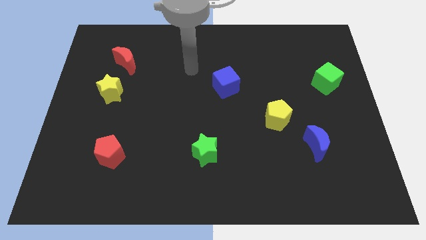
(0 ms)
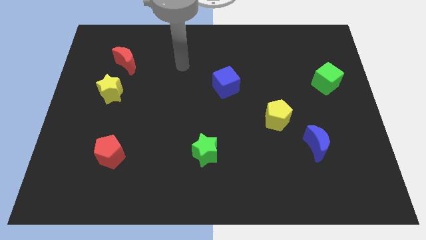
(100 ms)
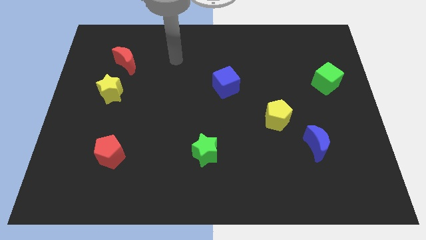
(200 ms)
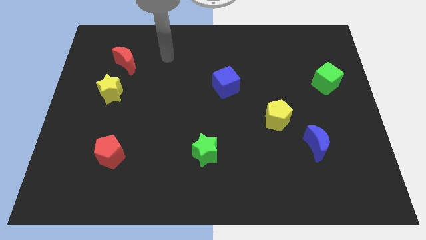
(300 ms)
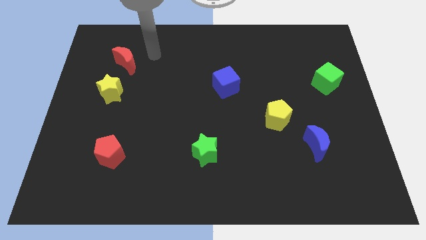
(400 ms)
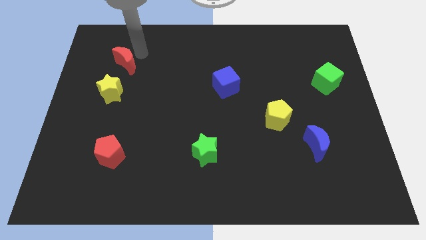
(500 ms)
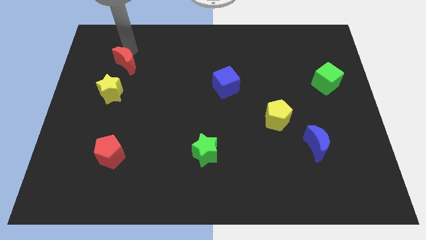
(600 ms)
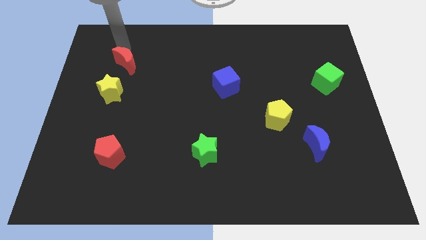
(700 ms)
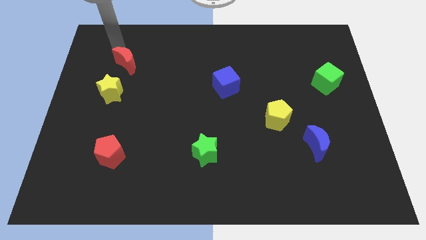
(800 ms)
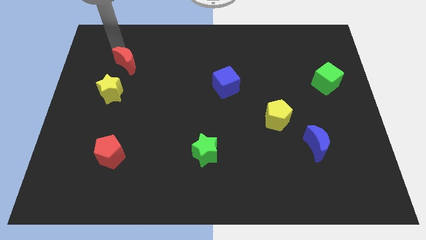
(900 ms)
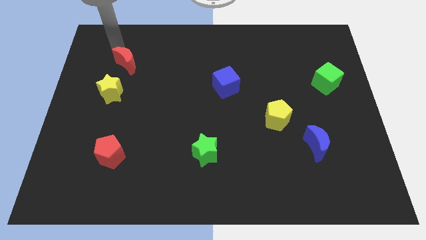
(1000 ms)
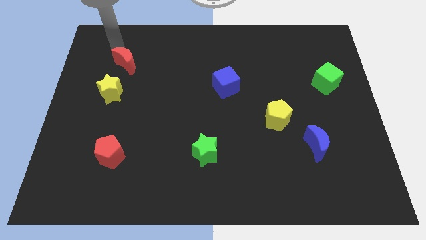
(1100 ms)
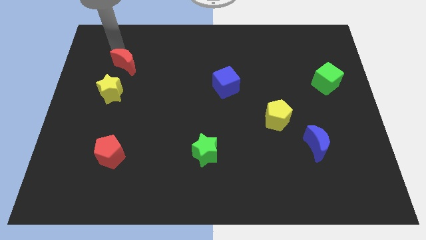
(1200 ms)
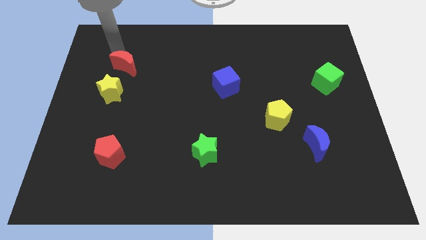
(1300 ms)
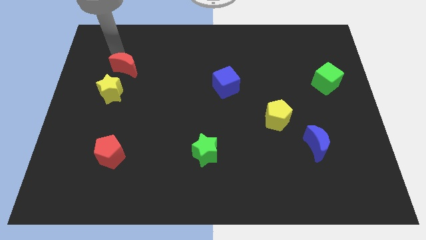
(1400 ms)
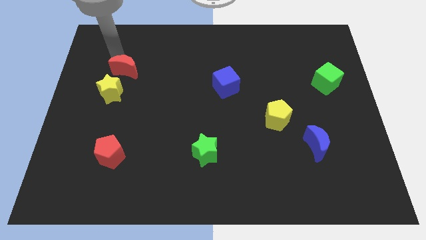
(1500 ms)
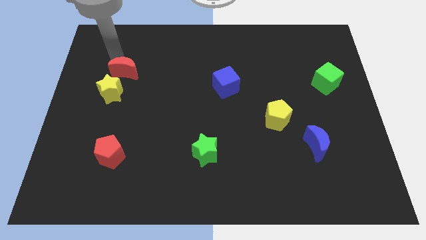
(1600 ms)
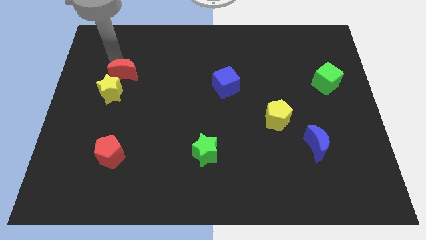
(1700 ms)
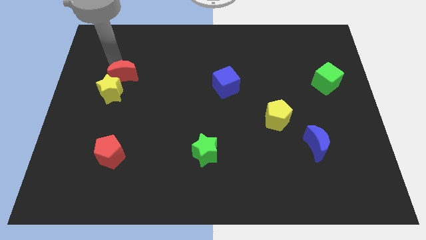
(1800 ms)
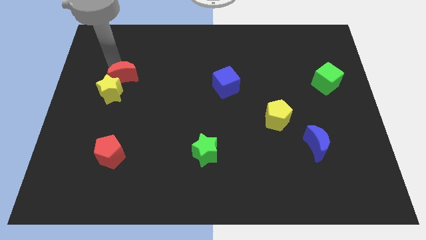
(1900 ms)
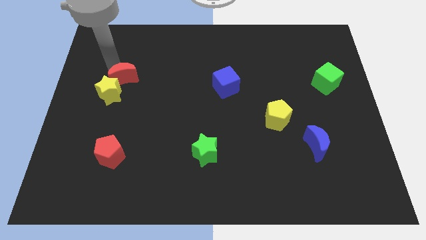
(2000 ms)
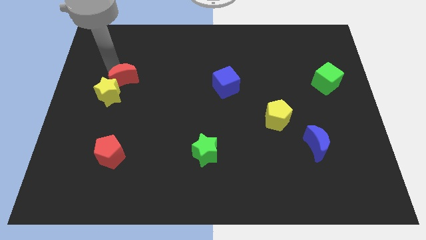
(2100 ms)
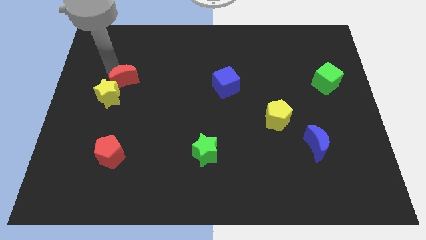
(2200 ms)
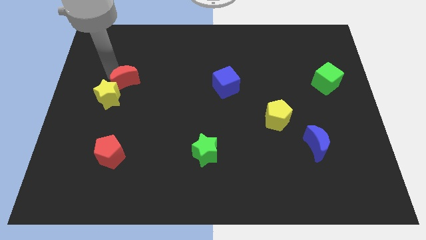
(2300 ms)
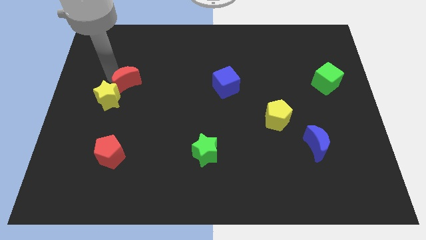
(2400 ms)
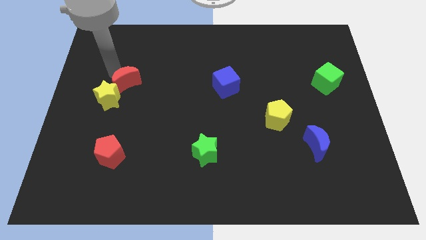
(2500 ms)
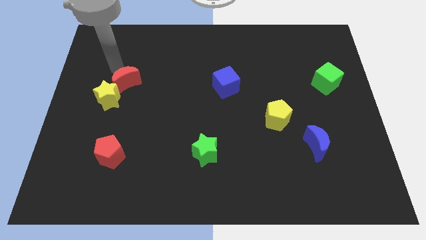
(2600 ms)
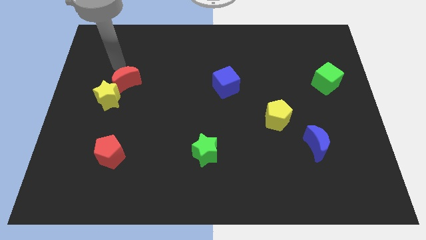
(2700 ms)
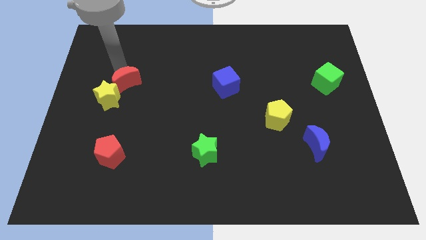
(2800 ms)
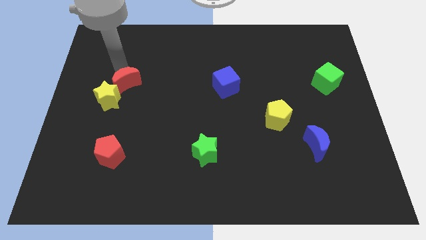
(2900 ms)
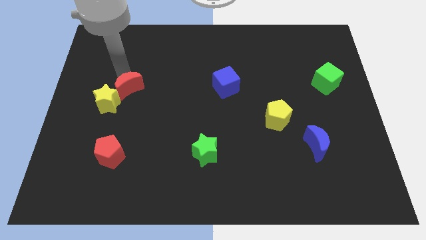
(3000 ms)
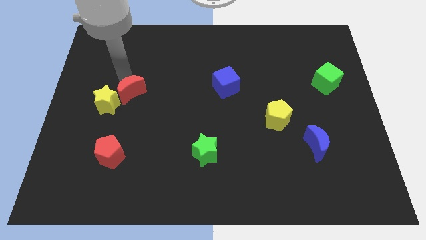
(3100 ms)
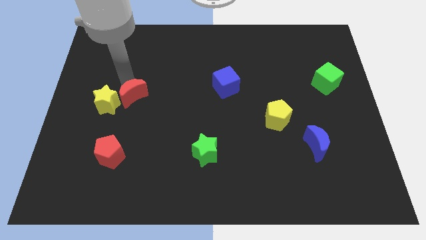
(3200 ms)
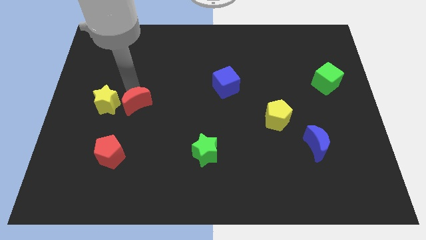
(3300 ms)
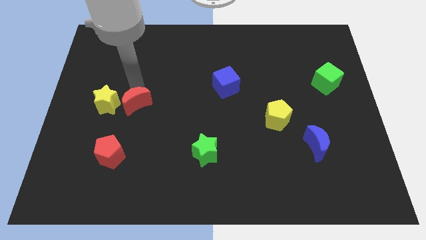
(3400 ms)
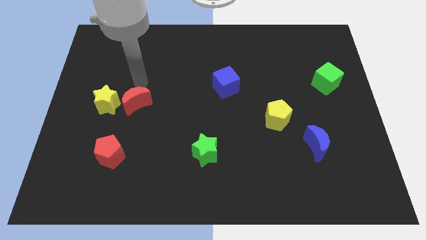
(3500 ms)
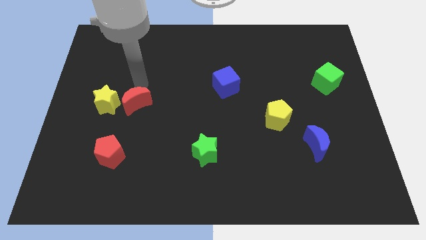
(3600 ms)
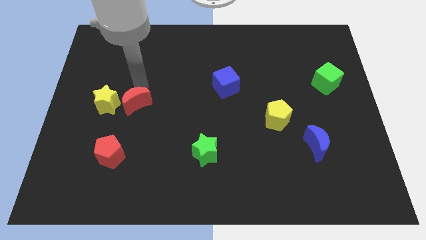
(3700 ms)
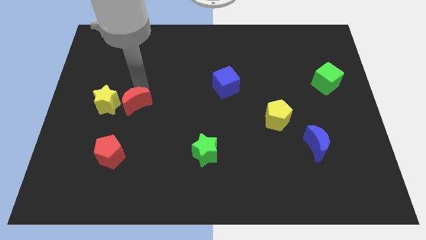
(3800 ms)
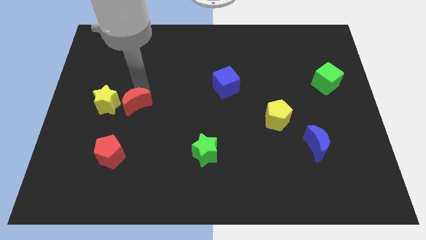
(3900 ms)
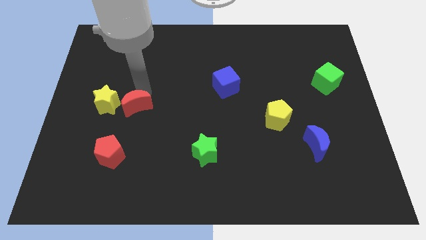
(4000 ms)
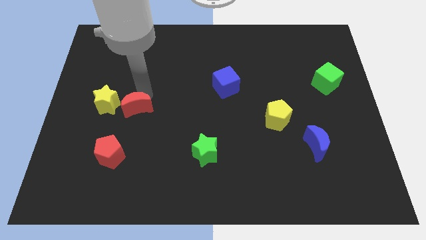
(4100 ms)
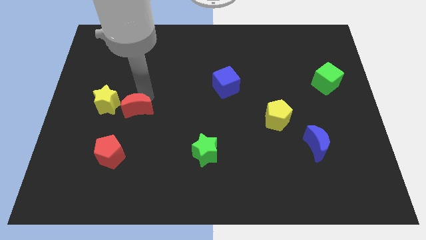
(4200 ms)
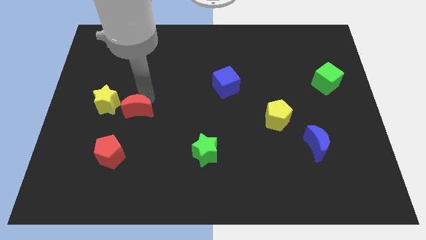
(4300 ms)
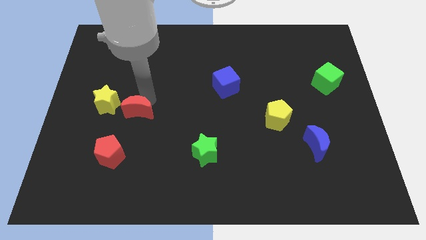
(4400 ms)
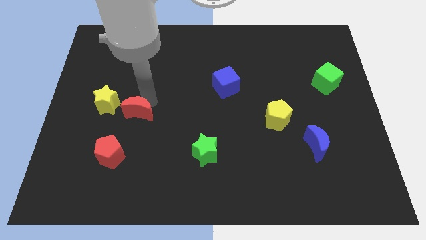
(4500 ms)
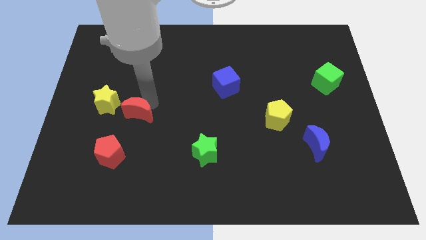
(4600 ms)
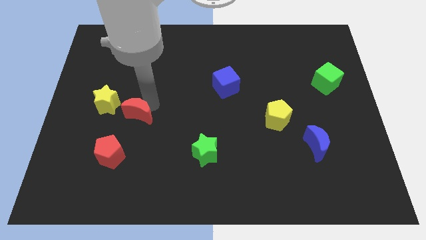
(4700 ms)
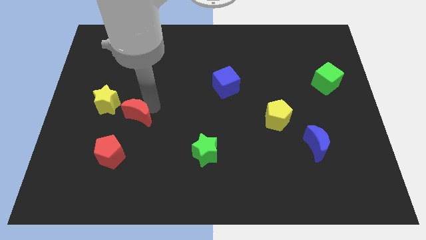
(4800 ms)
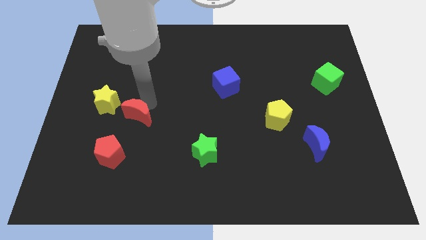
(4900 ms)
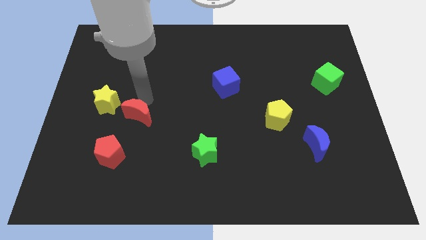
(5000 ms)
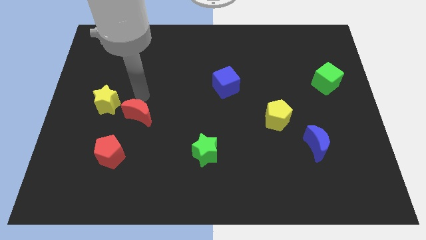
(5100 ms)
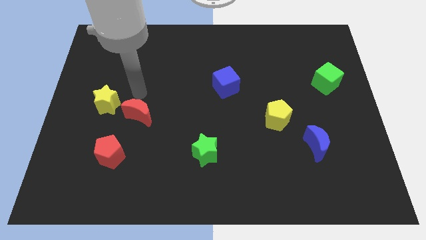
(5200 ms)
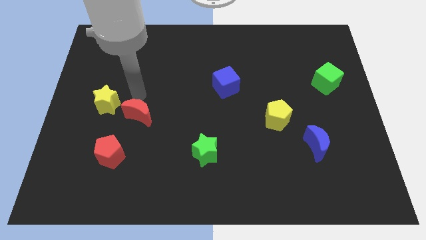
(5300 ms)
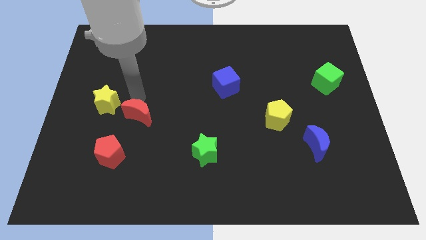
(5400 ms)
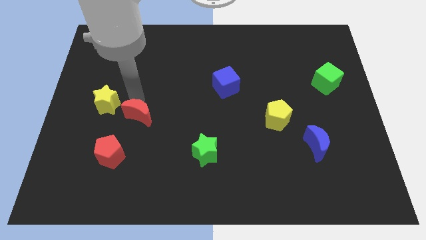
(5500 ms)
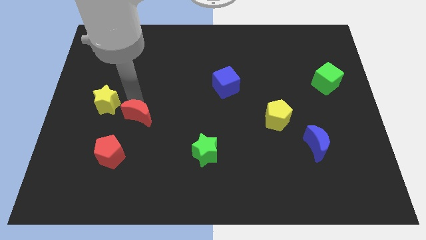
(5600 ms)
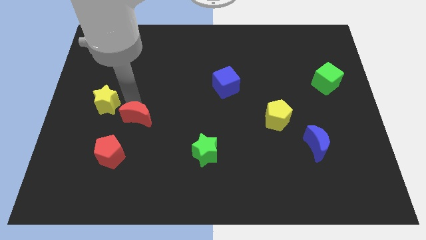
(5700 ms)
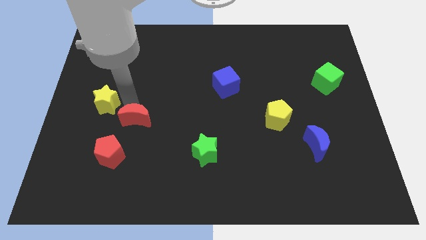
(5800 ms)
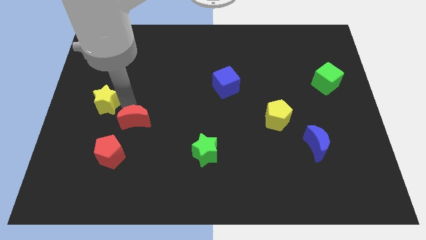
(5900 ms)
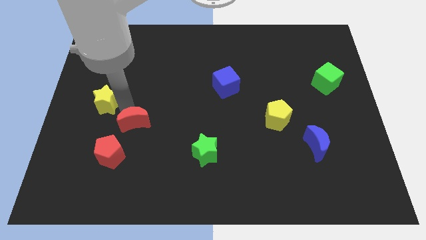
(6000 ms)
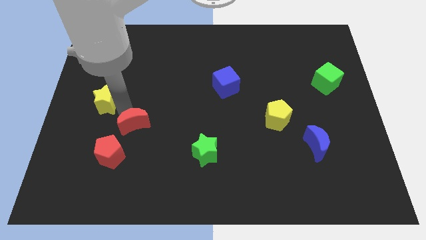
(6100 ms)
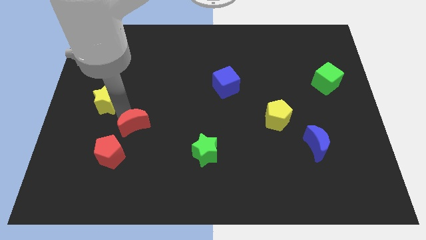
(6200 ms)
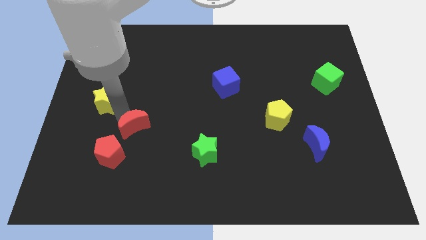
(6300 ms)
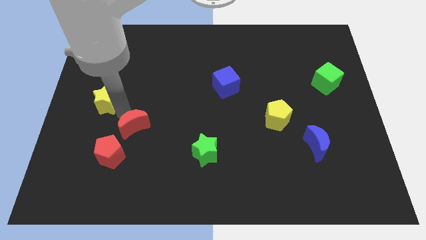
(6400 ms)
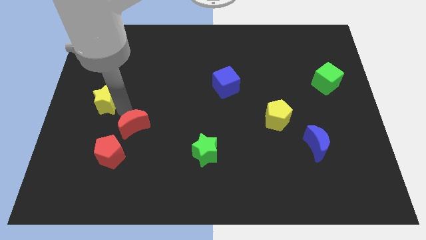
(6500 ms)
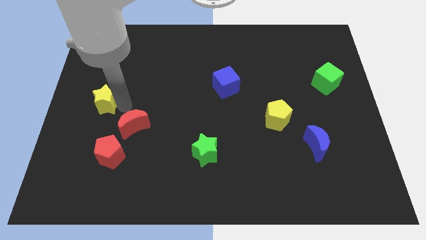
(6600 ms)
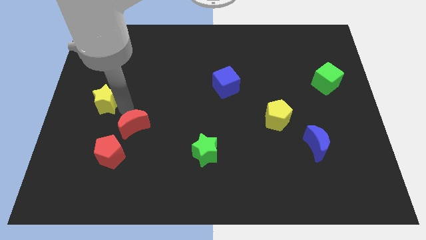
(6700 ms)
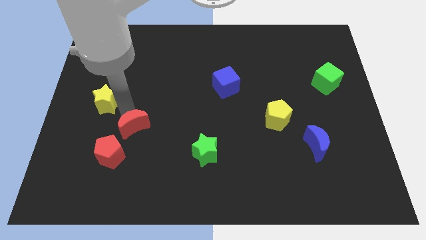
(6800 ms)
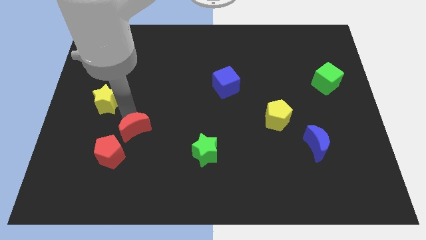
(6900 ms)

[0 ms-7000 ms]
push the red moon down

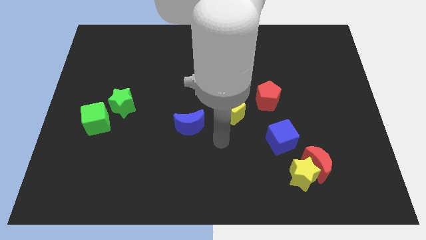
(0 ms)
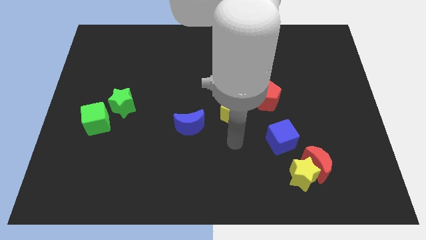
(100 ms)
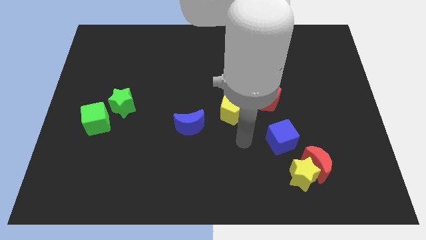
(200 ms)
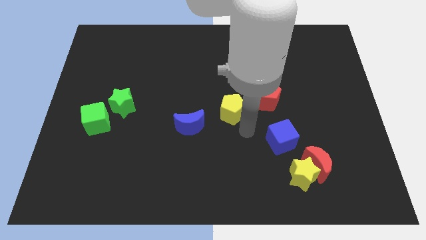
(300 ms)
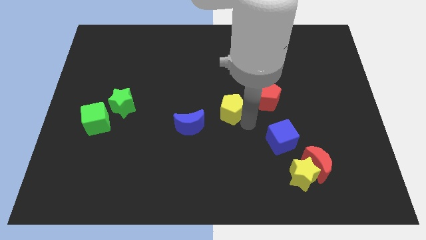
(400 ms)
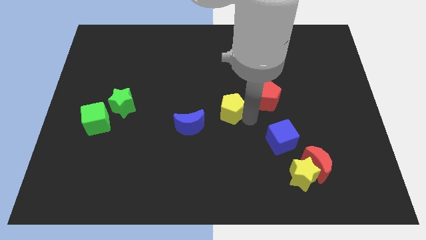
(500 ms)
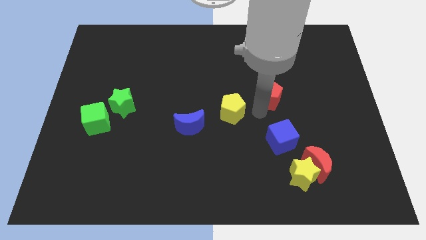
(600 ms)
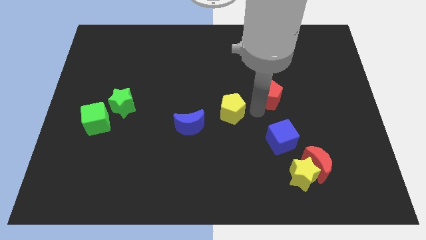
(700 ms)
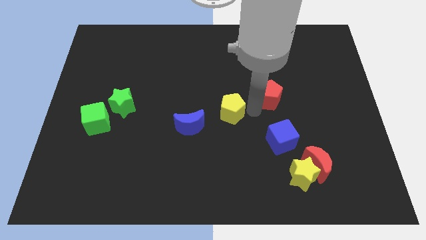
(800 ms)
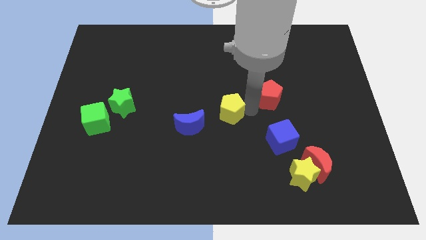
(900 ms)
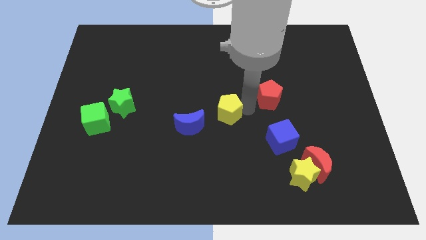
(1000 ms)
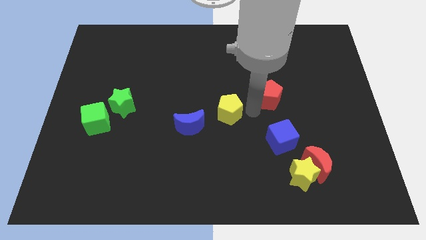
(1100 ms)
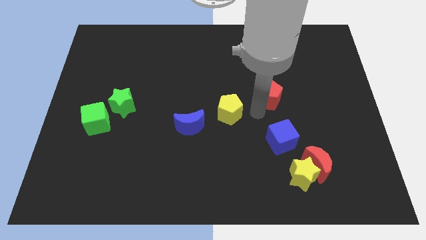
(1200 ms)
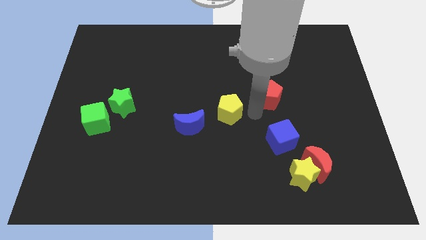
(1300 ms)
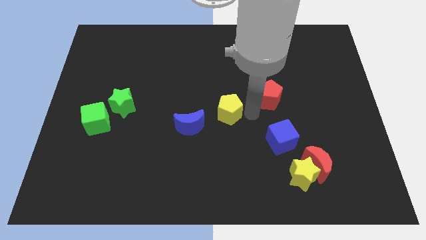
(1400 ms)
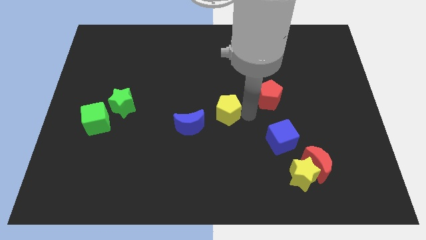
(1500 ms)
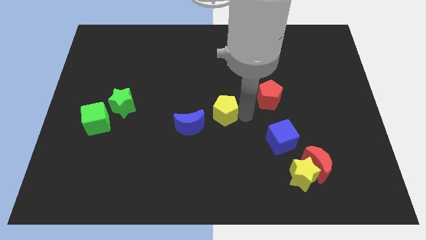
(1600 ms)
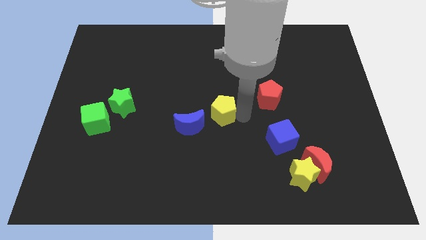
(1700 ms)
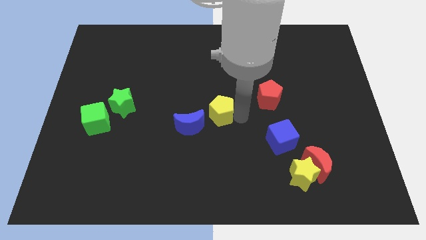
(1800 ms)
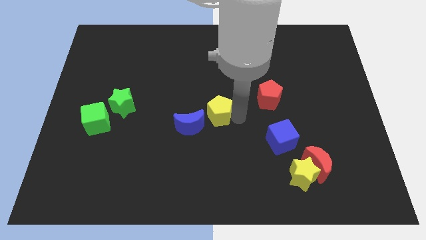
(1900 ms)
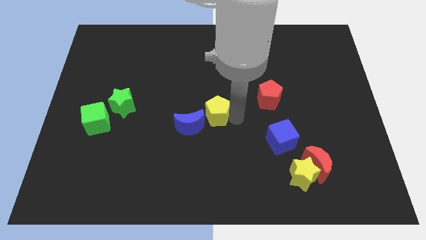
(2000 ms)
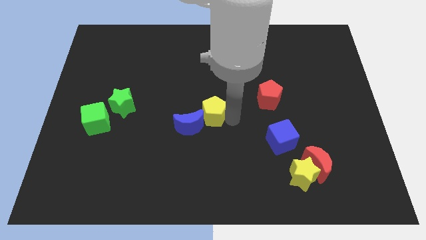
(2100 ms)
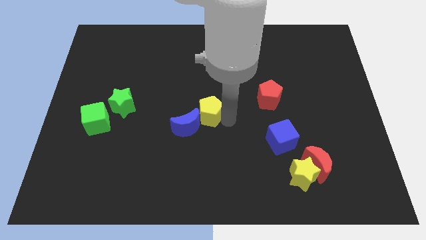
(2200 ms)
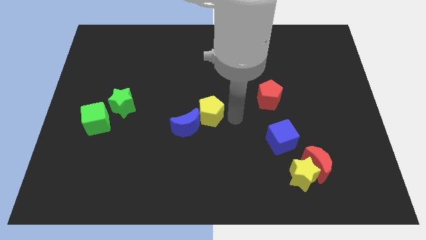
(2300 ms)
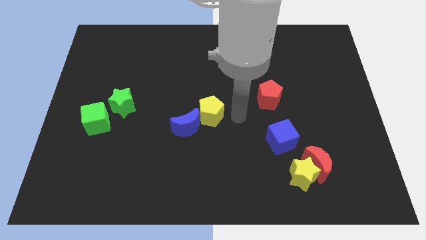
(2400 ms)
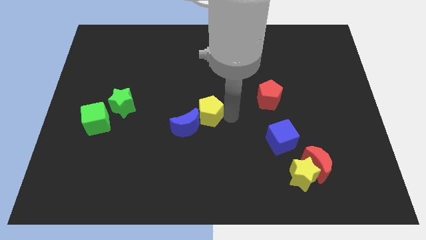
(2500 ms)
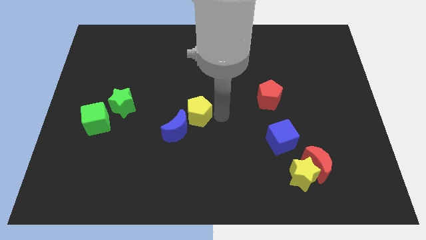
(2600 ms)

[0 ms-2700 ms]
slightly slide the yellow pentagon left
